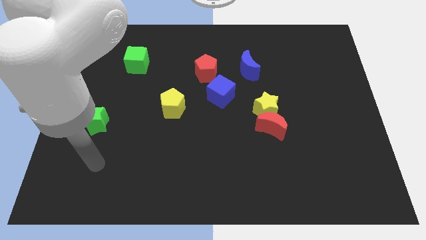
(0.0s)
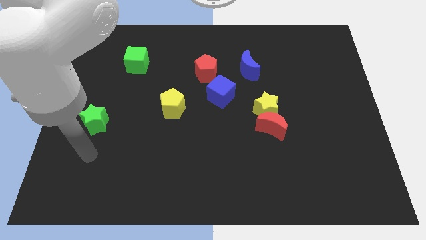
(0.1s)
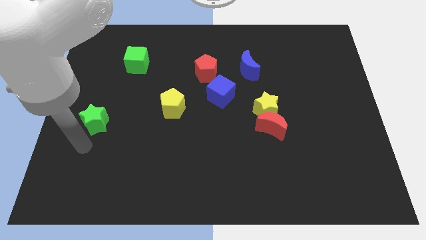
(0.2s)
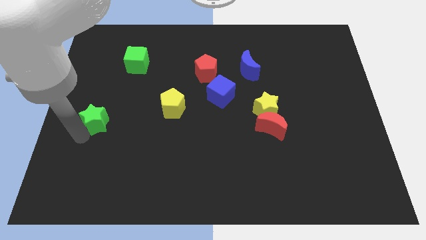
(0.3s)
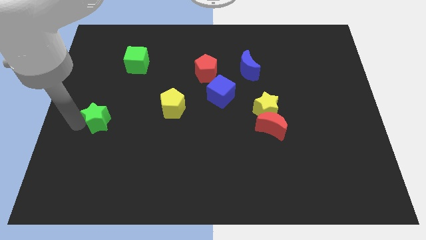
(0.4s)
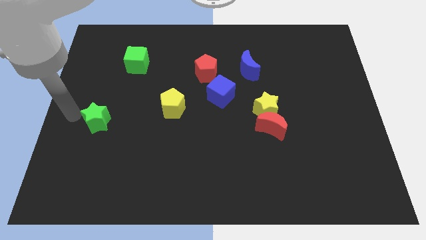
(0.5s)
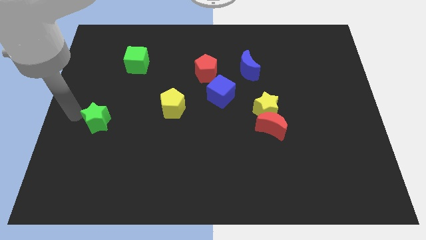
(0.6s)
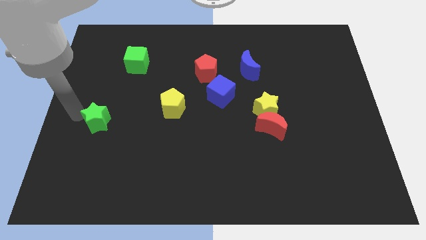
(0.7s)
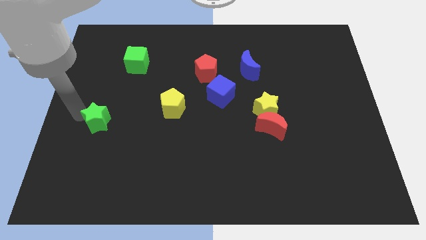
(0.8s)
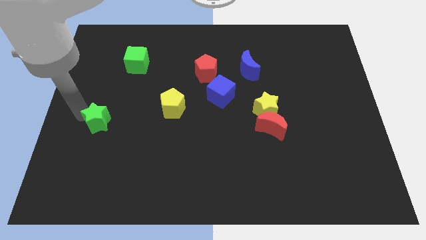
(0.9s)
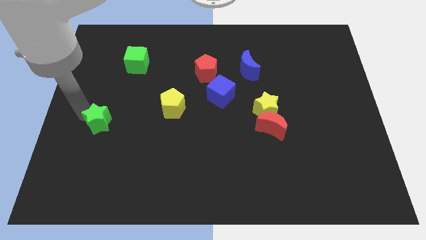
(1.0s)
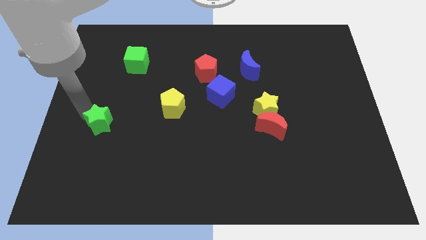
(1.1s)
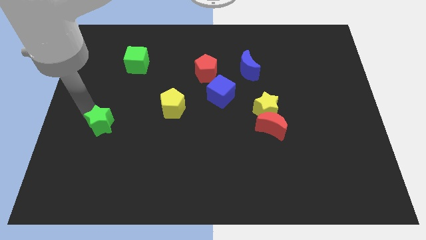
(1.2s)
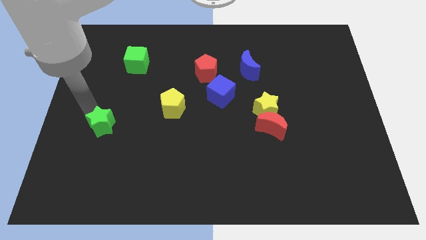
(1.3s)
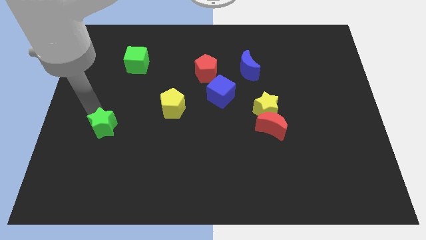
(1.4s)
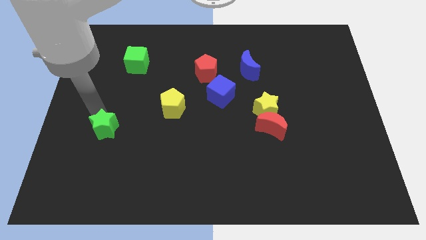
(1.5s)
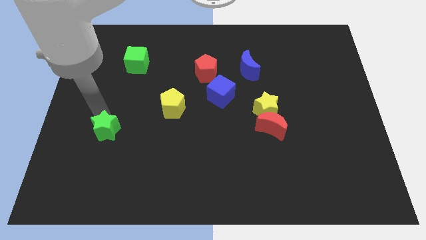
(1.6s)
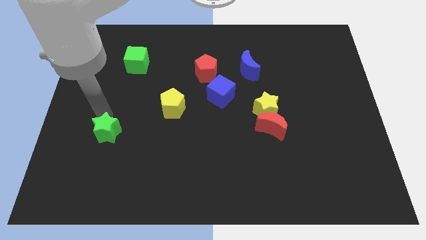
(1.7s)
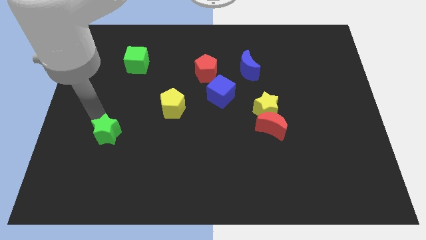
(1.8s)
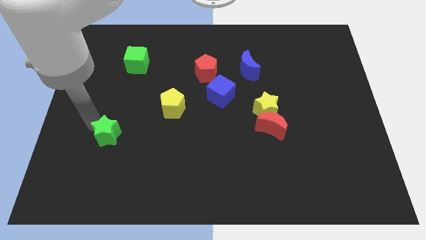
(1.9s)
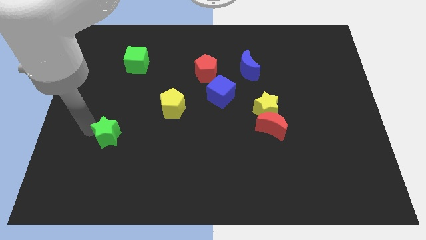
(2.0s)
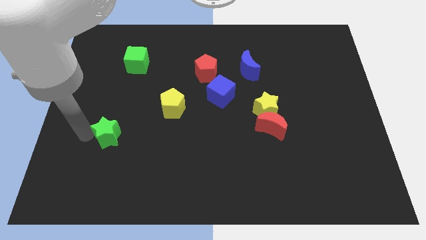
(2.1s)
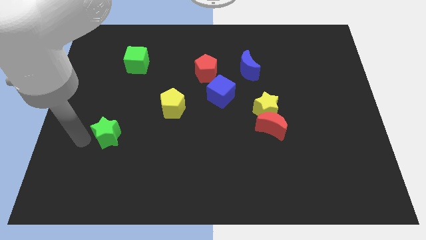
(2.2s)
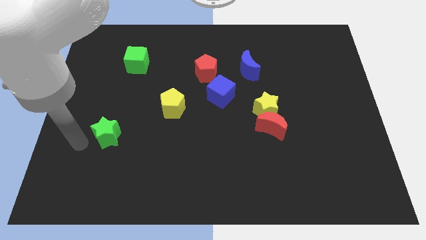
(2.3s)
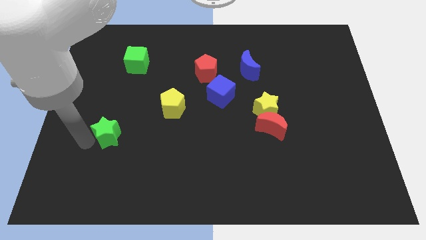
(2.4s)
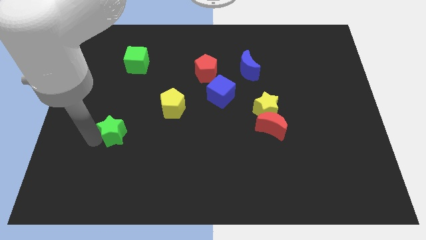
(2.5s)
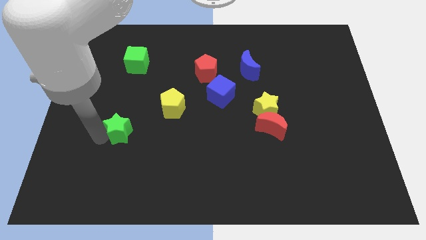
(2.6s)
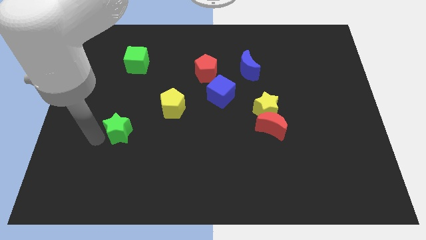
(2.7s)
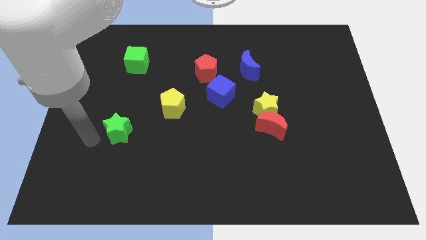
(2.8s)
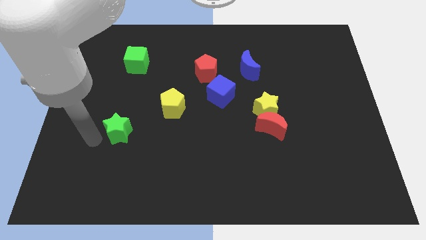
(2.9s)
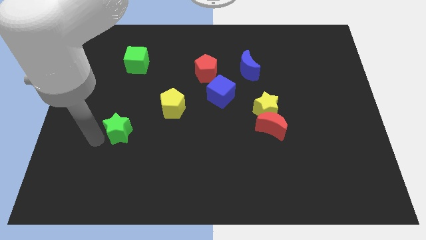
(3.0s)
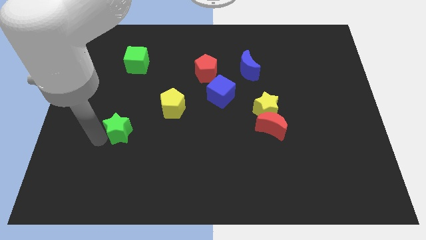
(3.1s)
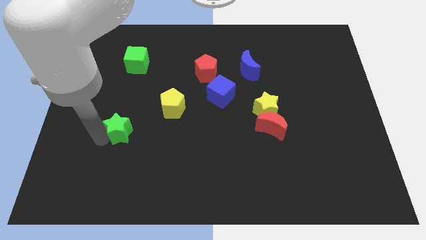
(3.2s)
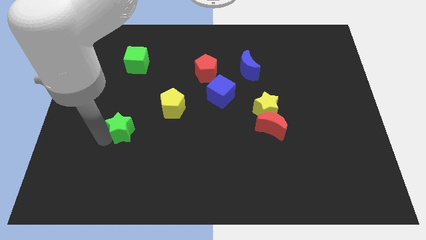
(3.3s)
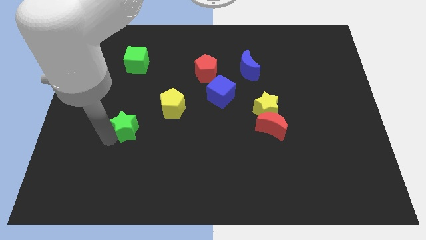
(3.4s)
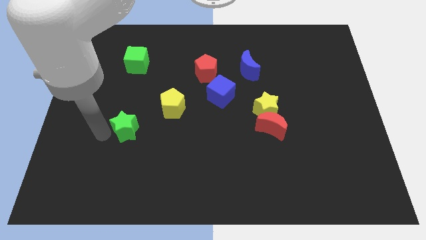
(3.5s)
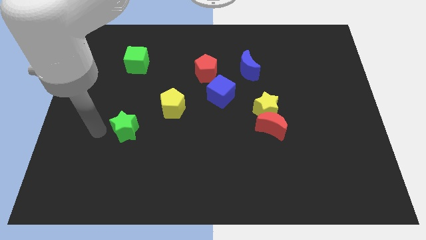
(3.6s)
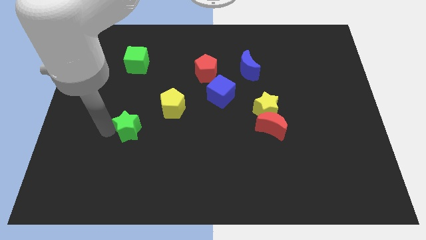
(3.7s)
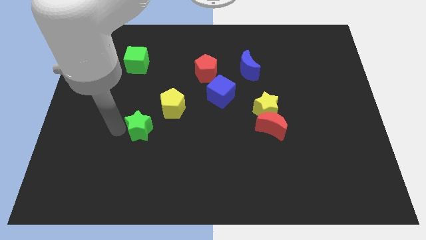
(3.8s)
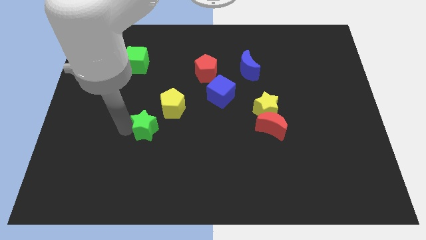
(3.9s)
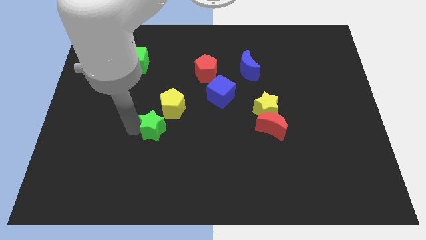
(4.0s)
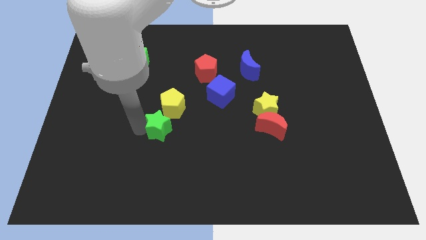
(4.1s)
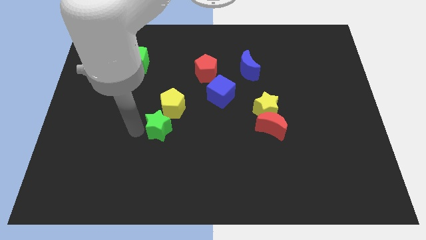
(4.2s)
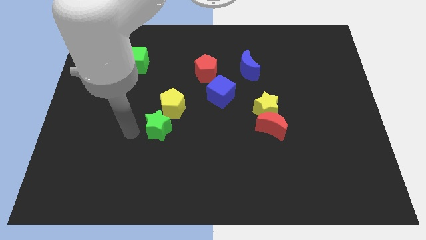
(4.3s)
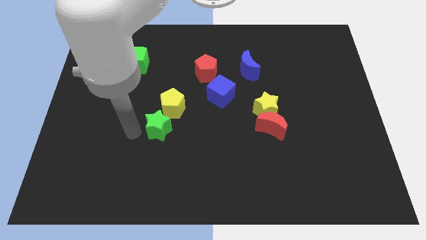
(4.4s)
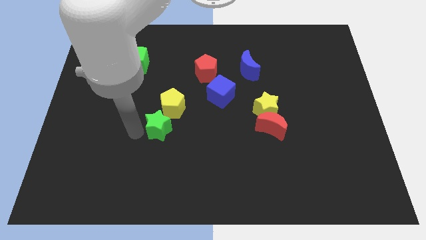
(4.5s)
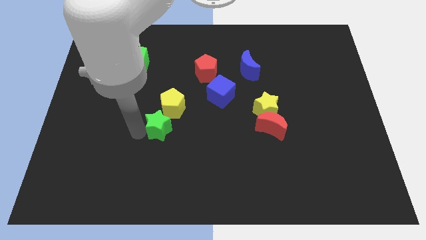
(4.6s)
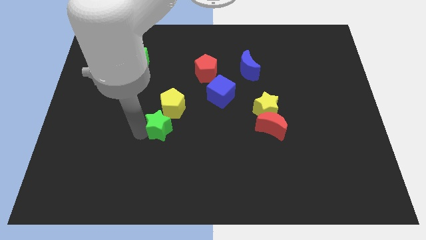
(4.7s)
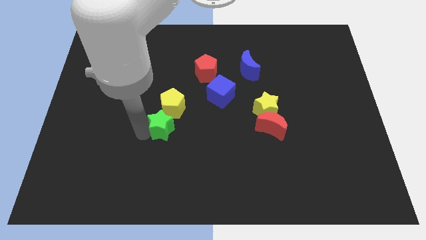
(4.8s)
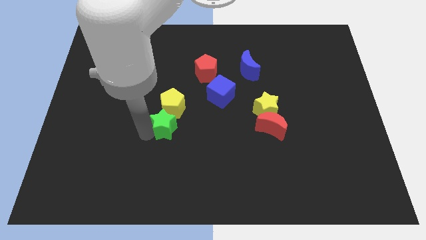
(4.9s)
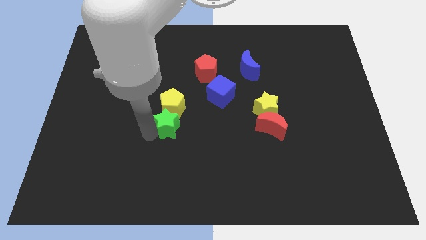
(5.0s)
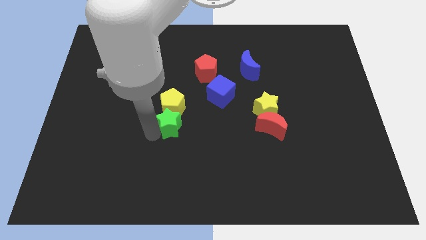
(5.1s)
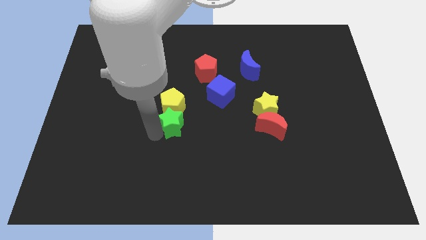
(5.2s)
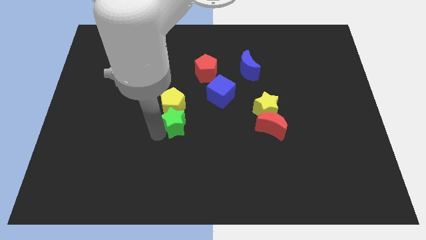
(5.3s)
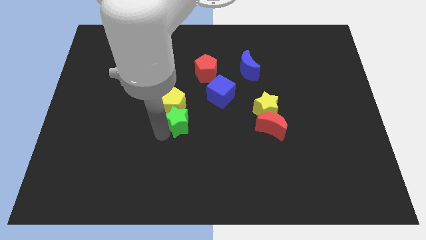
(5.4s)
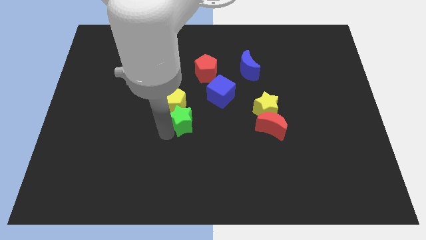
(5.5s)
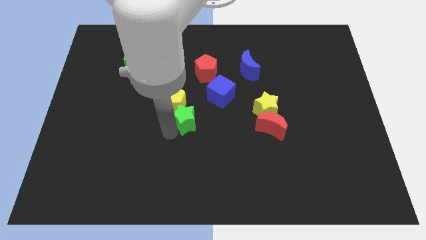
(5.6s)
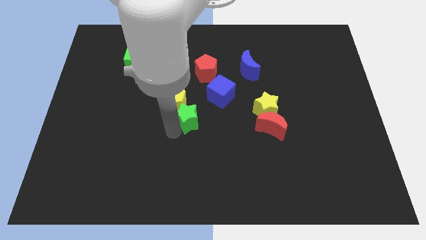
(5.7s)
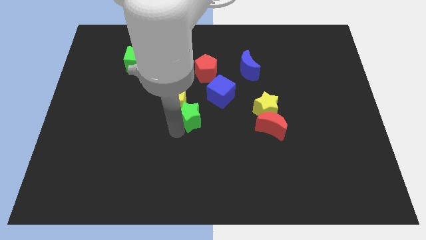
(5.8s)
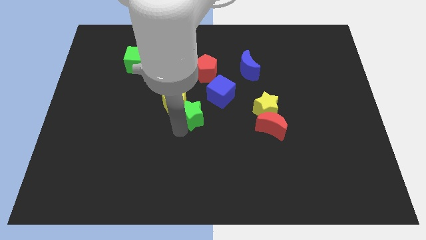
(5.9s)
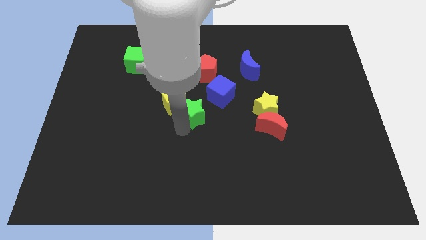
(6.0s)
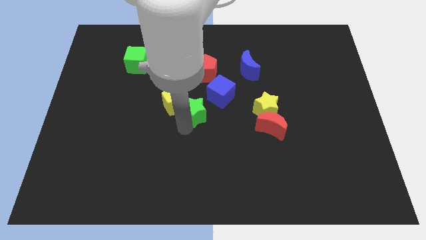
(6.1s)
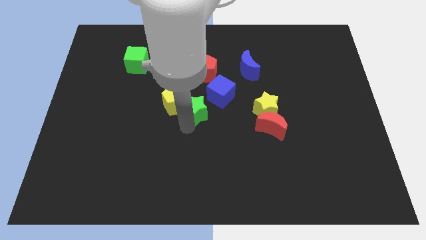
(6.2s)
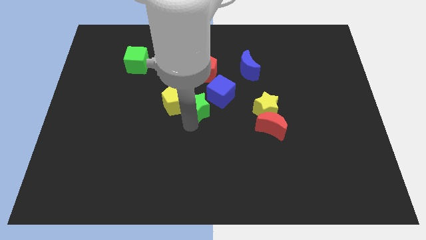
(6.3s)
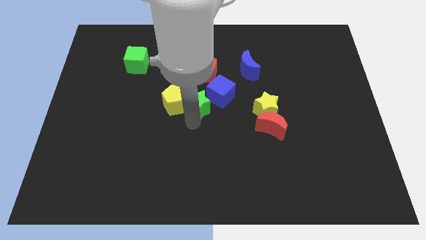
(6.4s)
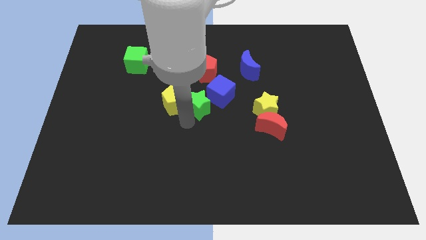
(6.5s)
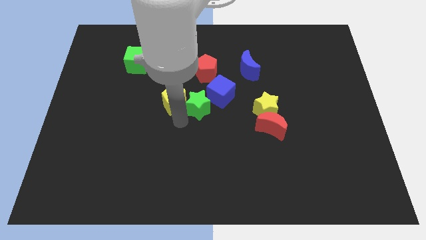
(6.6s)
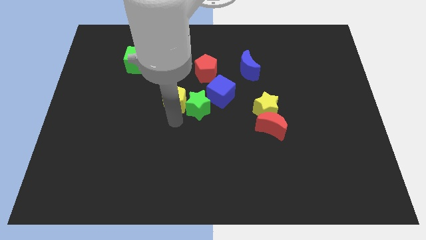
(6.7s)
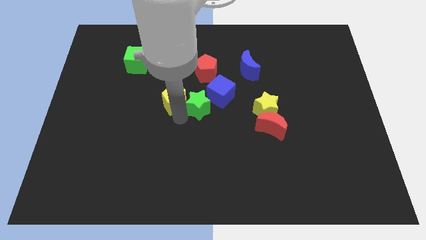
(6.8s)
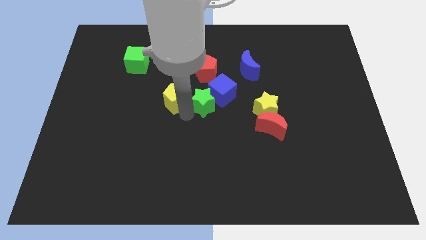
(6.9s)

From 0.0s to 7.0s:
move the green star next to the blue cube
